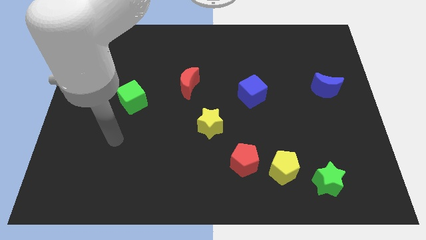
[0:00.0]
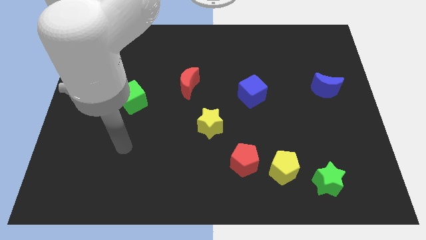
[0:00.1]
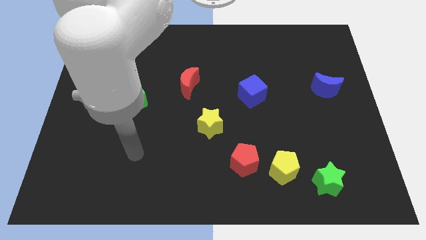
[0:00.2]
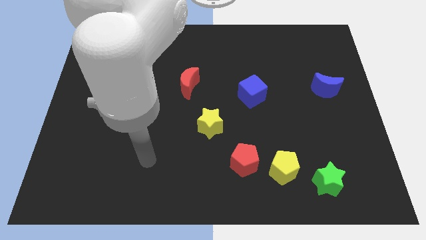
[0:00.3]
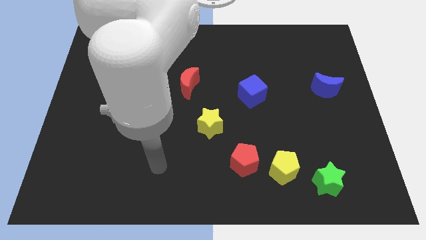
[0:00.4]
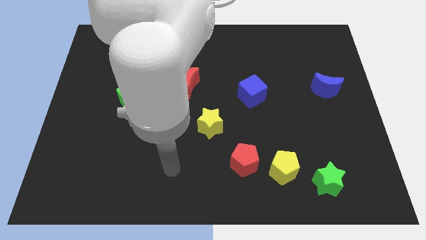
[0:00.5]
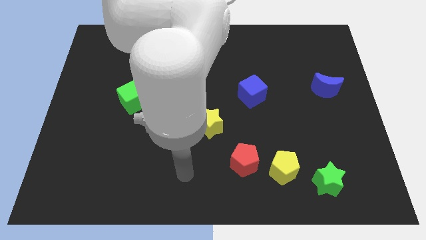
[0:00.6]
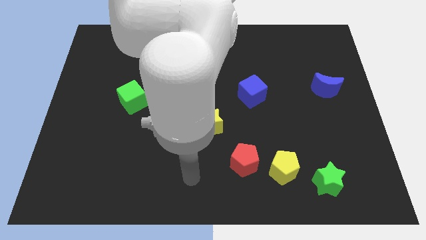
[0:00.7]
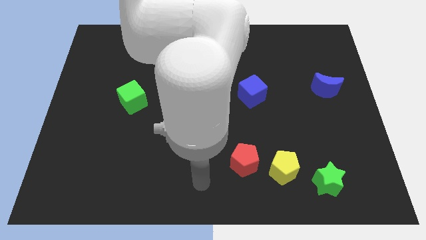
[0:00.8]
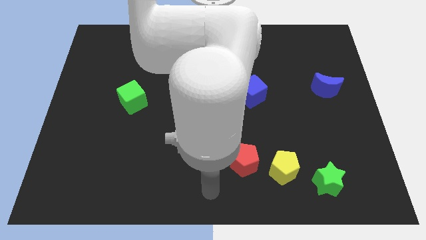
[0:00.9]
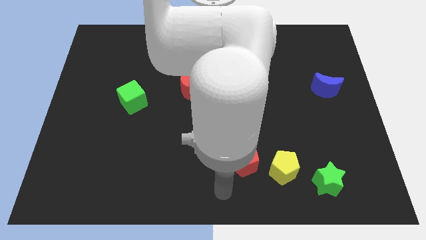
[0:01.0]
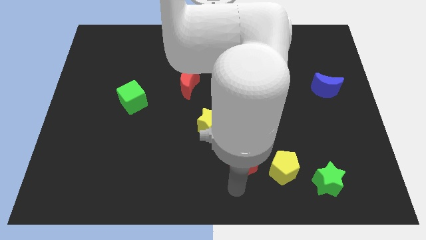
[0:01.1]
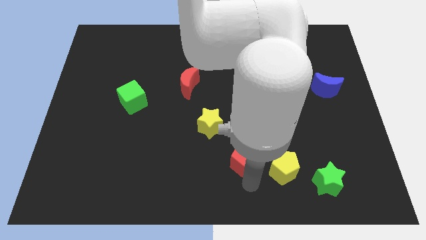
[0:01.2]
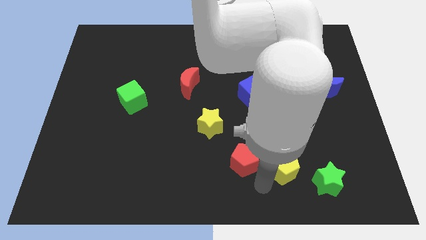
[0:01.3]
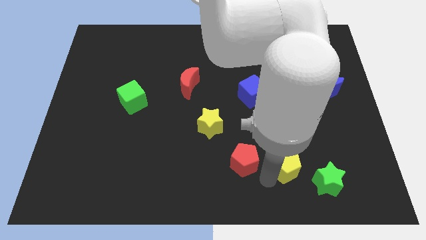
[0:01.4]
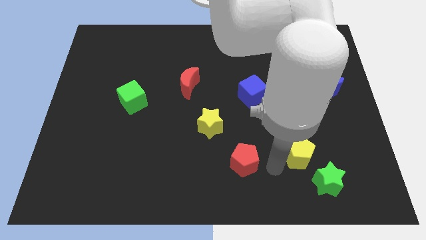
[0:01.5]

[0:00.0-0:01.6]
move the red pentagon away from the yellow pentagon

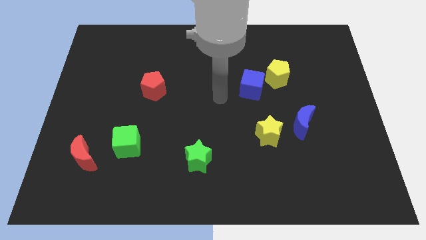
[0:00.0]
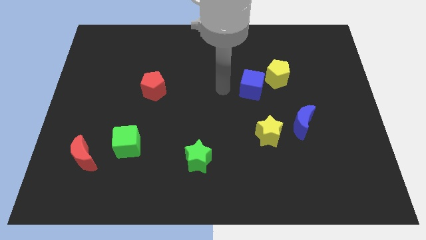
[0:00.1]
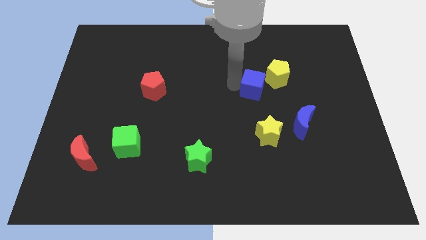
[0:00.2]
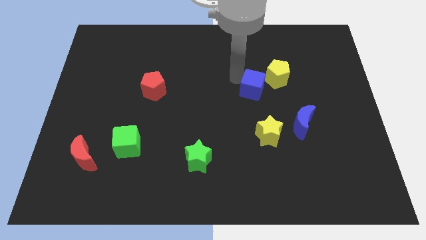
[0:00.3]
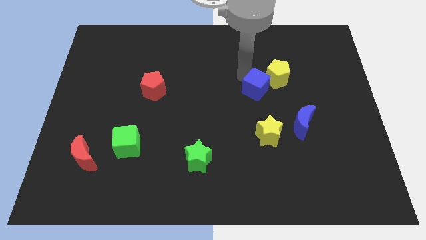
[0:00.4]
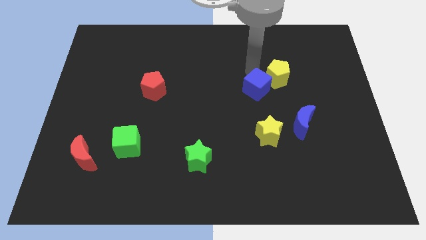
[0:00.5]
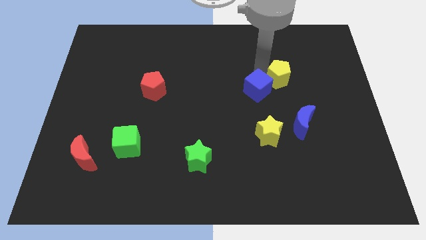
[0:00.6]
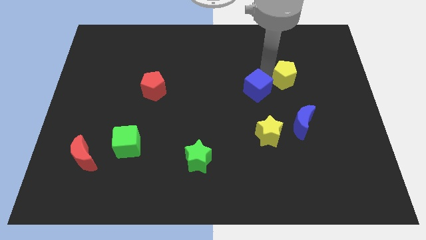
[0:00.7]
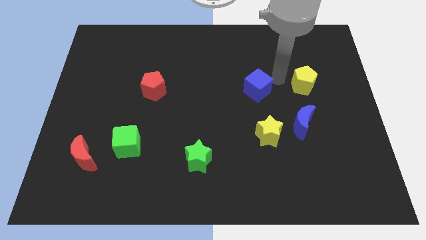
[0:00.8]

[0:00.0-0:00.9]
pull the blue cube apart from the yellow pentagon

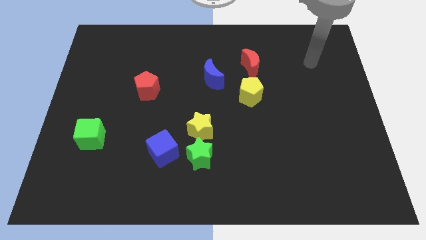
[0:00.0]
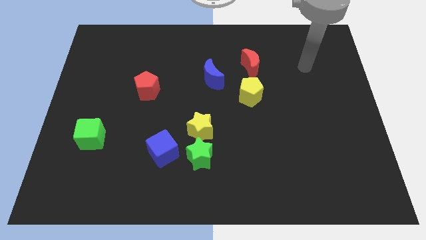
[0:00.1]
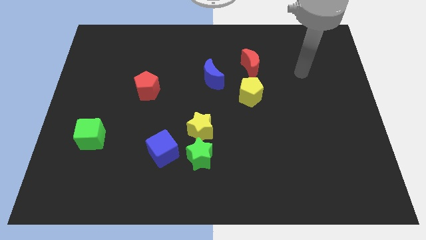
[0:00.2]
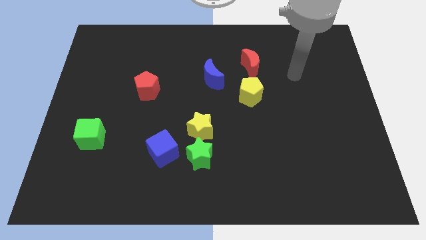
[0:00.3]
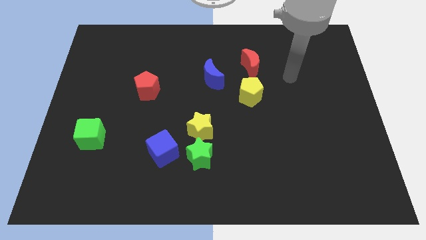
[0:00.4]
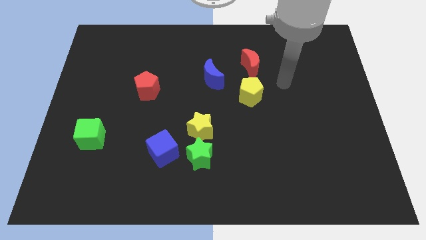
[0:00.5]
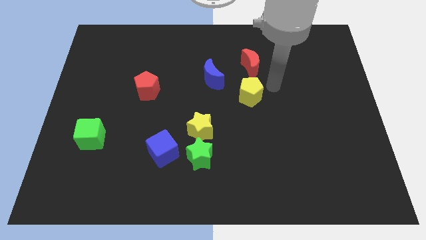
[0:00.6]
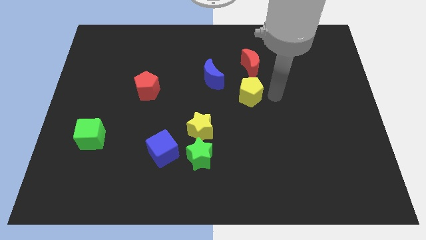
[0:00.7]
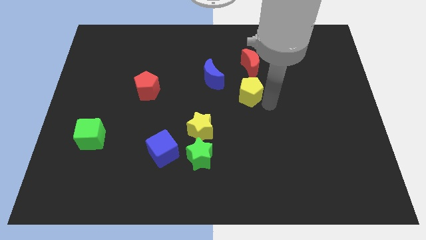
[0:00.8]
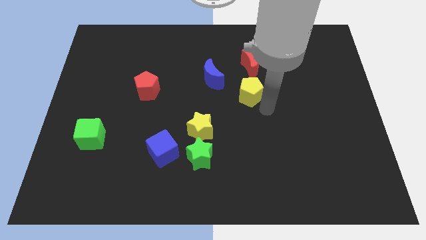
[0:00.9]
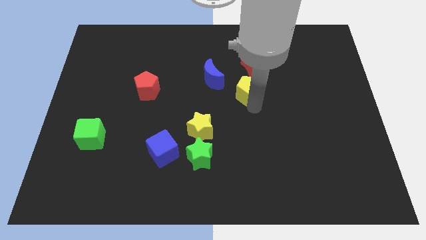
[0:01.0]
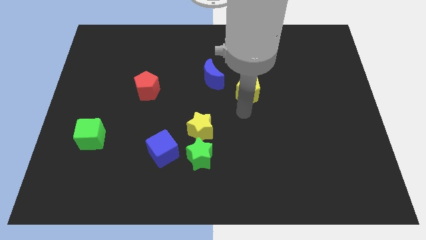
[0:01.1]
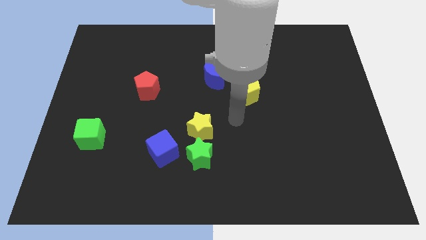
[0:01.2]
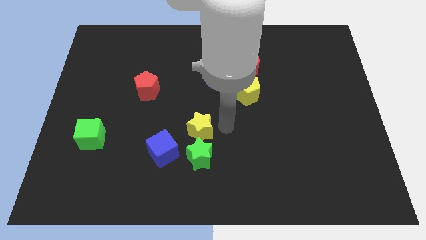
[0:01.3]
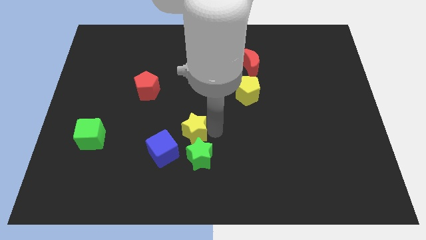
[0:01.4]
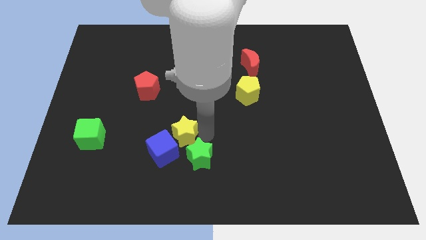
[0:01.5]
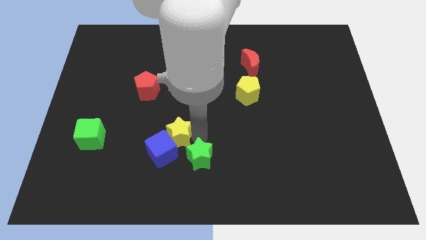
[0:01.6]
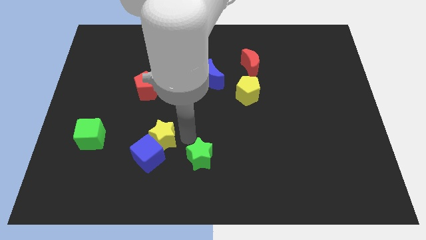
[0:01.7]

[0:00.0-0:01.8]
separate the green star from the yellow star and blue cube

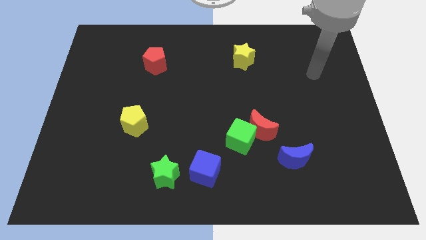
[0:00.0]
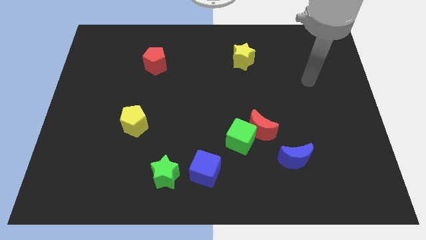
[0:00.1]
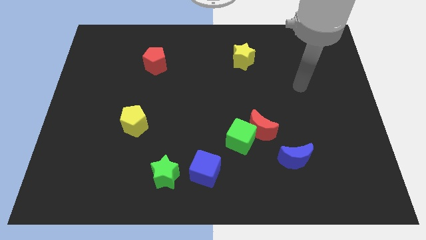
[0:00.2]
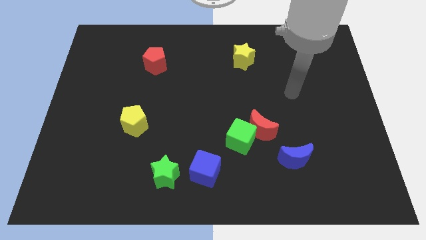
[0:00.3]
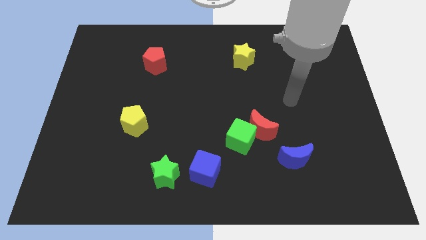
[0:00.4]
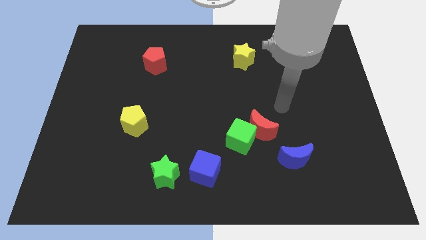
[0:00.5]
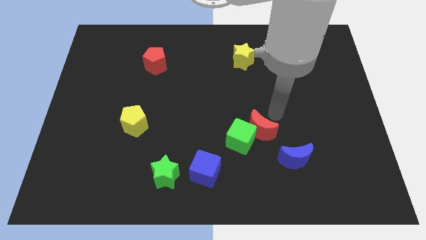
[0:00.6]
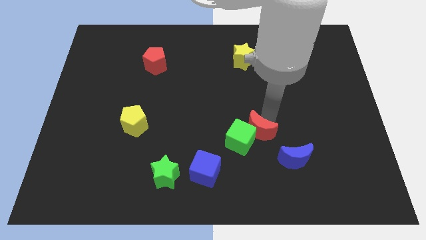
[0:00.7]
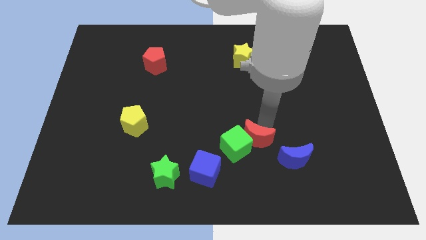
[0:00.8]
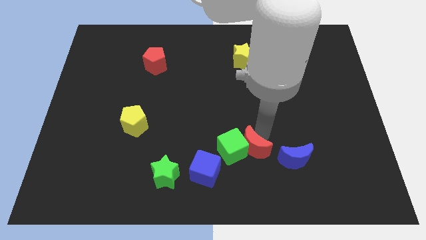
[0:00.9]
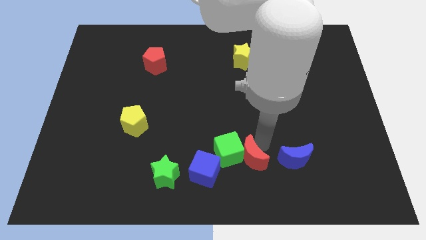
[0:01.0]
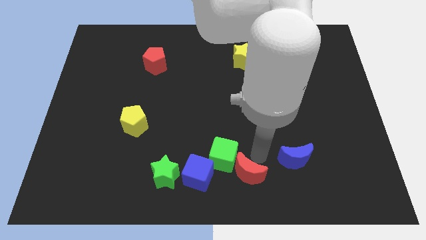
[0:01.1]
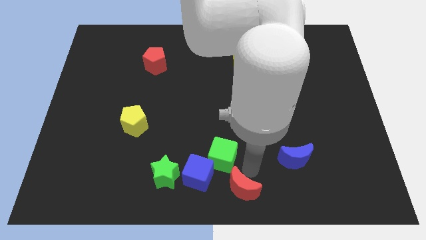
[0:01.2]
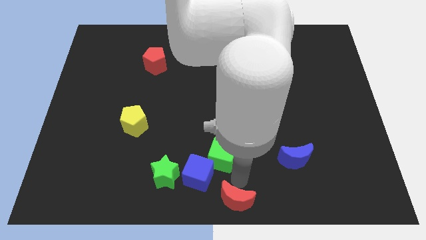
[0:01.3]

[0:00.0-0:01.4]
separate the green cube from the red moon

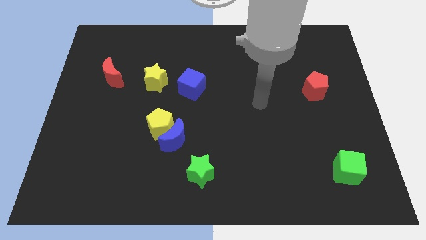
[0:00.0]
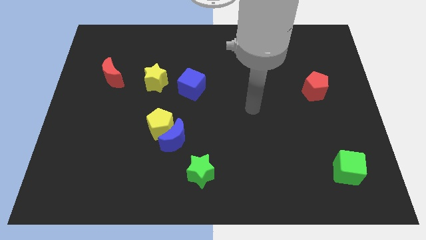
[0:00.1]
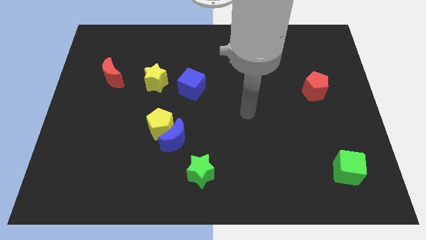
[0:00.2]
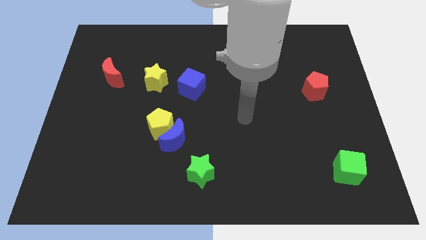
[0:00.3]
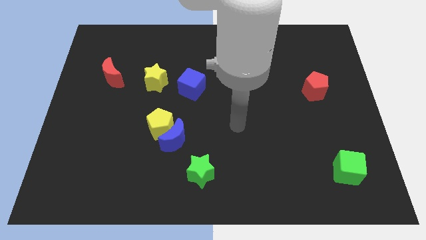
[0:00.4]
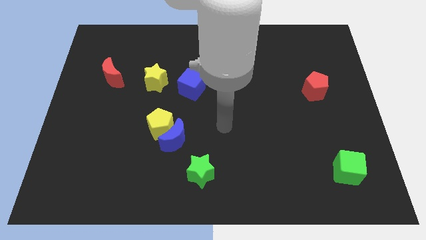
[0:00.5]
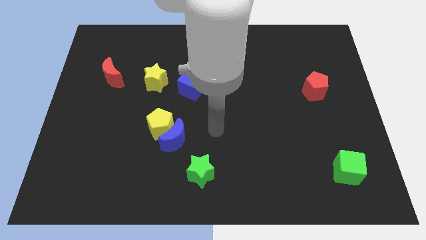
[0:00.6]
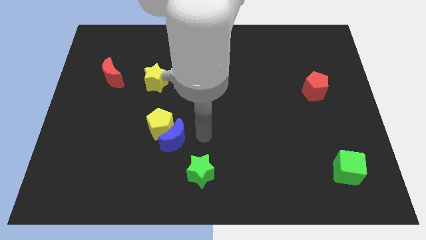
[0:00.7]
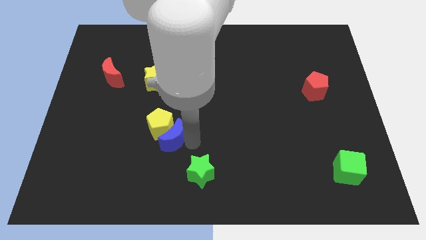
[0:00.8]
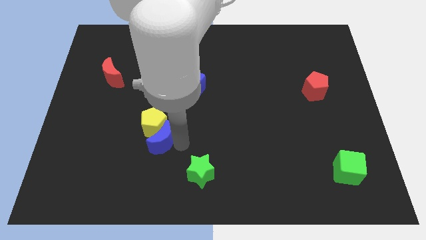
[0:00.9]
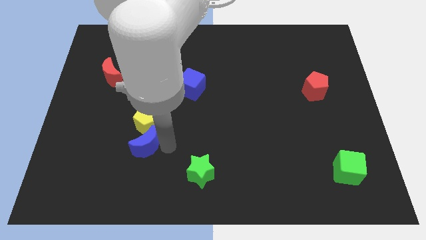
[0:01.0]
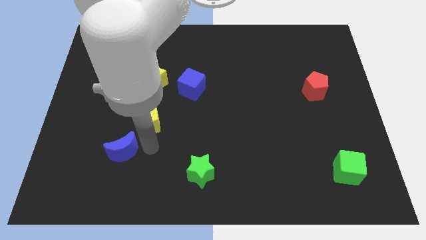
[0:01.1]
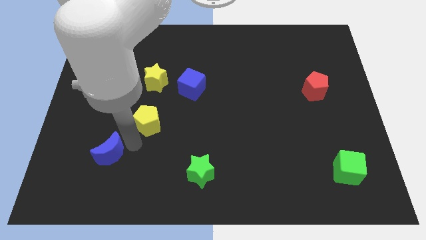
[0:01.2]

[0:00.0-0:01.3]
separate the yellow pentagon from the blue moon

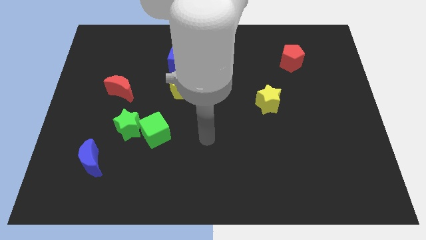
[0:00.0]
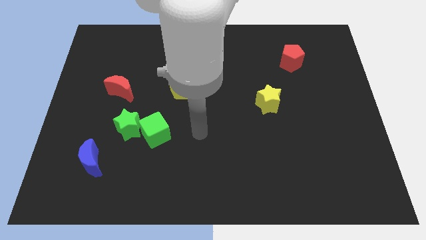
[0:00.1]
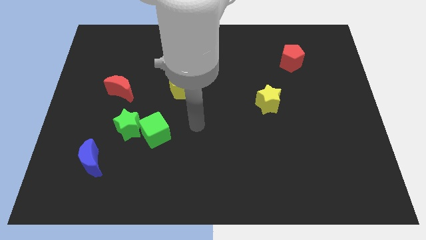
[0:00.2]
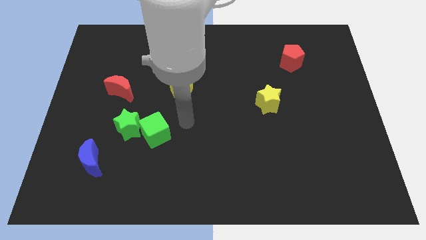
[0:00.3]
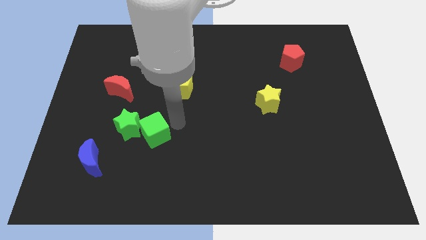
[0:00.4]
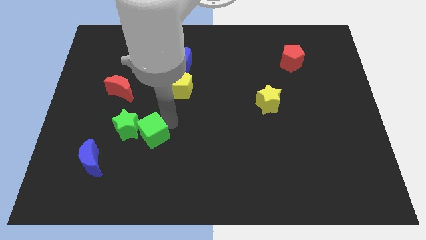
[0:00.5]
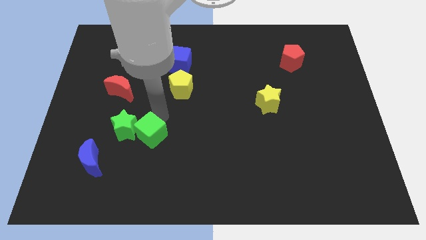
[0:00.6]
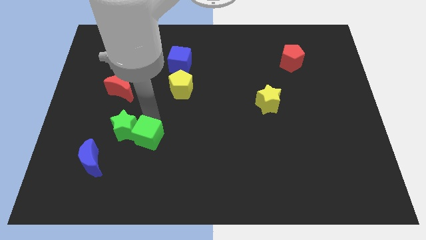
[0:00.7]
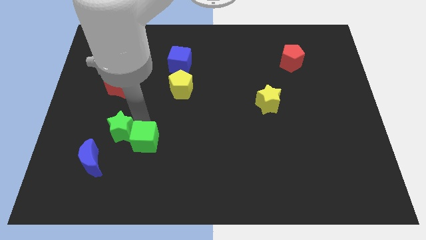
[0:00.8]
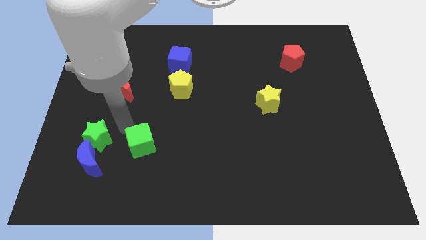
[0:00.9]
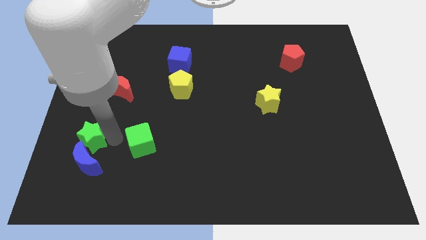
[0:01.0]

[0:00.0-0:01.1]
separate the green cube from the green star

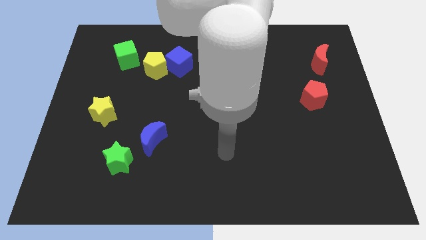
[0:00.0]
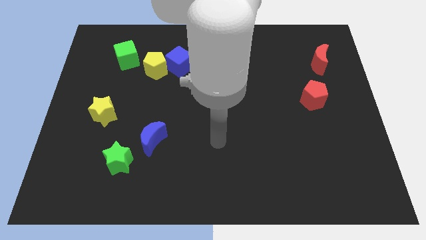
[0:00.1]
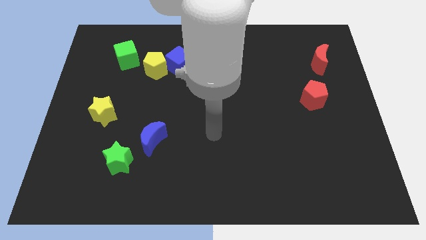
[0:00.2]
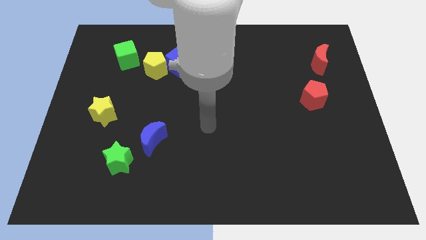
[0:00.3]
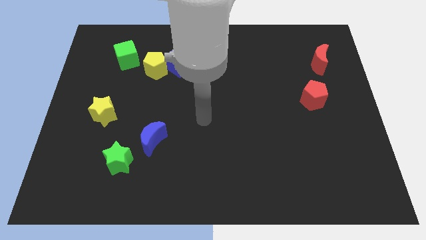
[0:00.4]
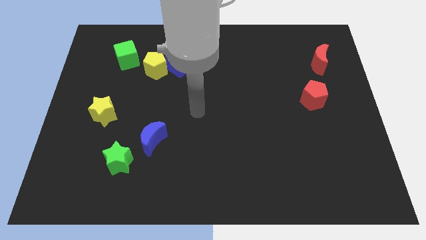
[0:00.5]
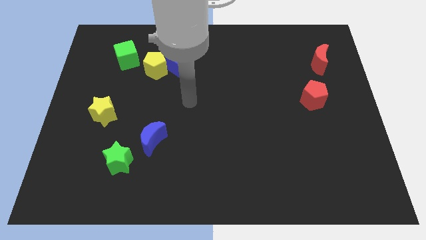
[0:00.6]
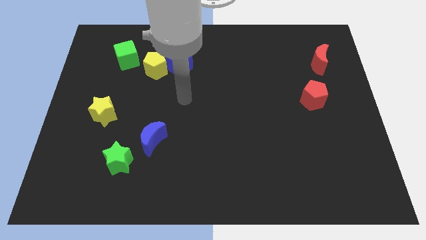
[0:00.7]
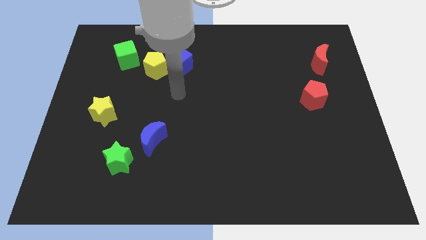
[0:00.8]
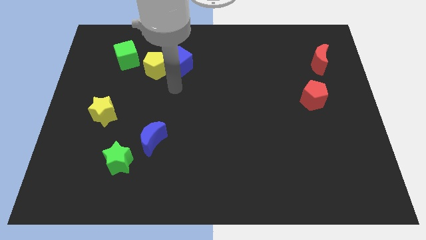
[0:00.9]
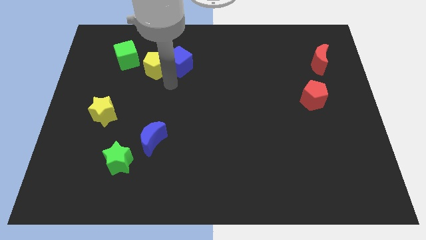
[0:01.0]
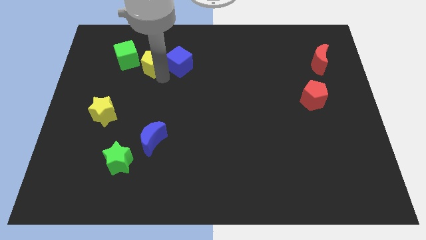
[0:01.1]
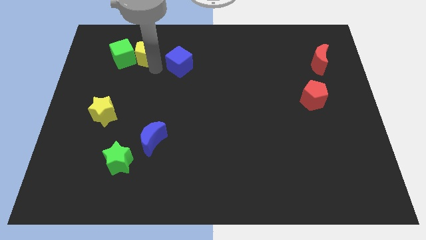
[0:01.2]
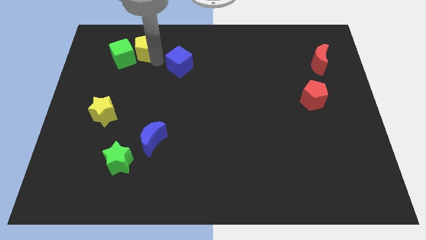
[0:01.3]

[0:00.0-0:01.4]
separate the blue cube from the yellow pentagon
